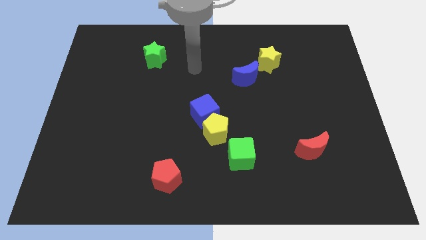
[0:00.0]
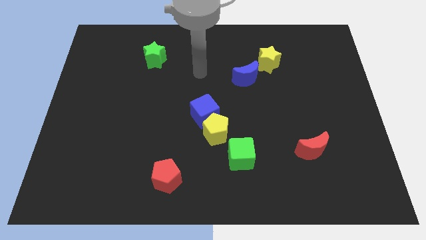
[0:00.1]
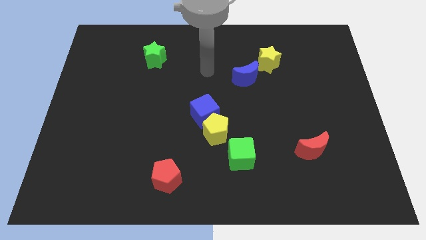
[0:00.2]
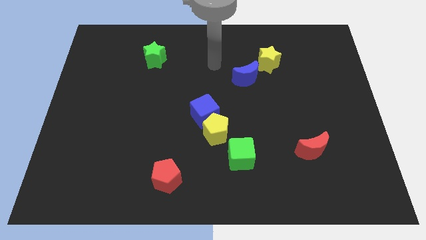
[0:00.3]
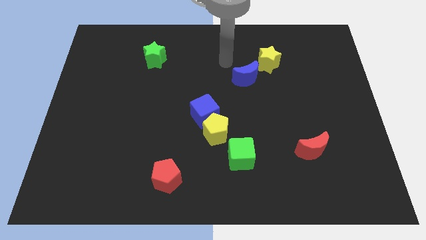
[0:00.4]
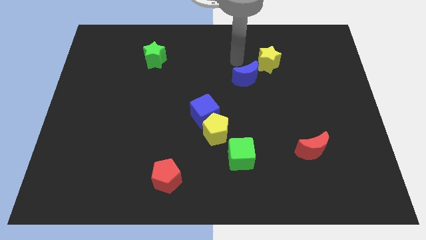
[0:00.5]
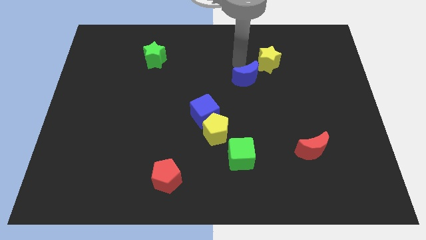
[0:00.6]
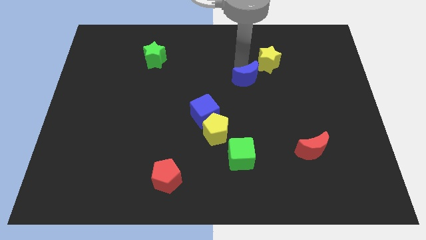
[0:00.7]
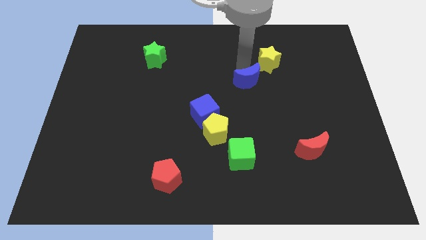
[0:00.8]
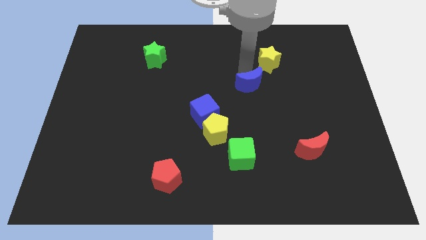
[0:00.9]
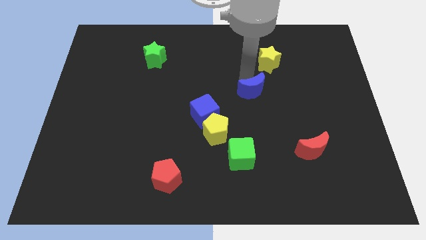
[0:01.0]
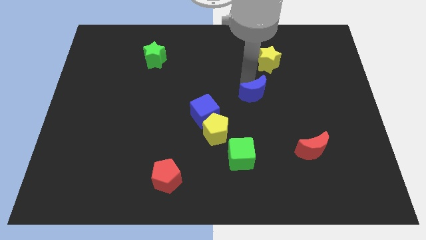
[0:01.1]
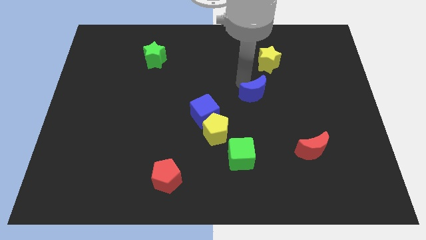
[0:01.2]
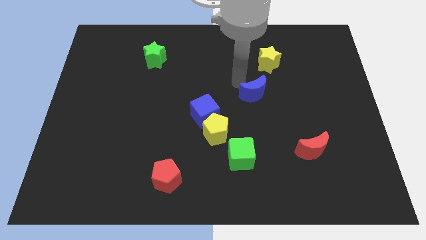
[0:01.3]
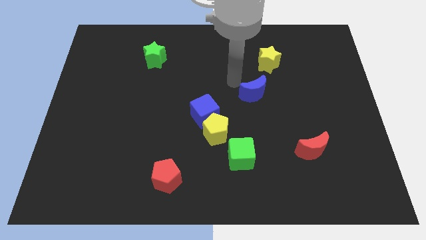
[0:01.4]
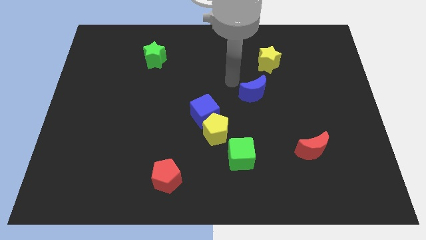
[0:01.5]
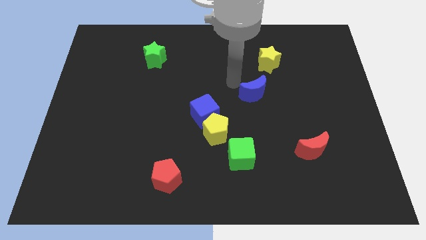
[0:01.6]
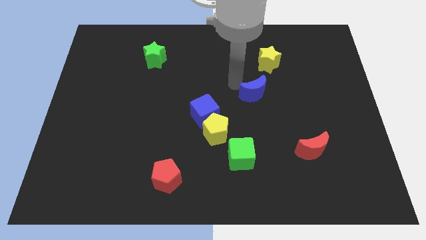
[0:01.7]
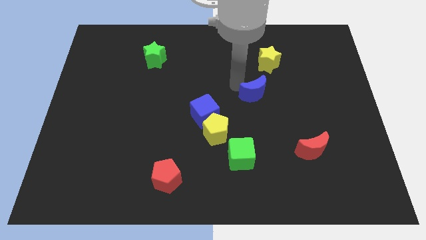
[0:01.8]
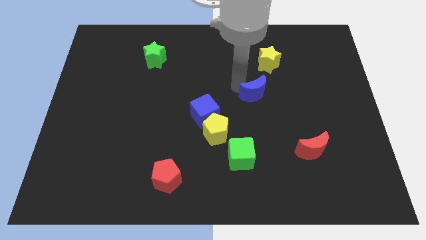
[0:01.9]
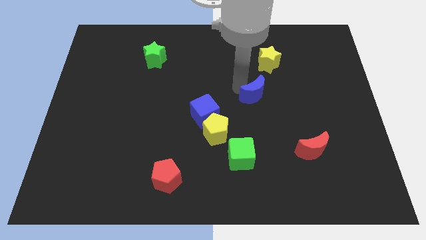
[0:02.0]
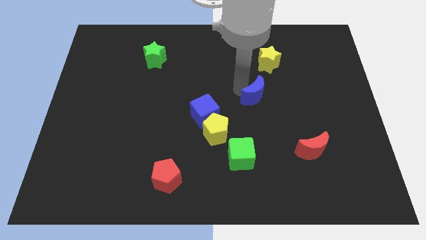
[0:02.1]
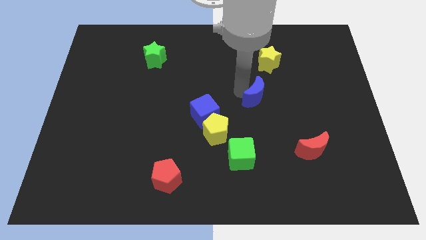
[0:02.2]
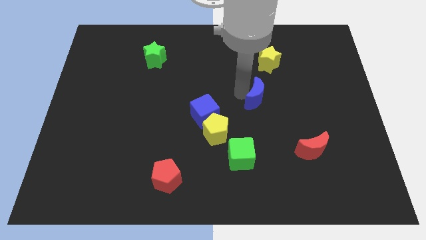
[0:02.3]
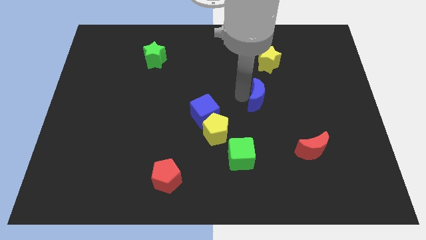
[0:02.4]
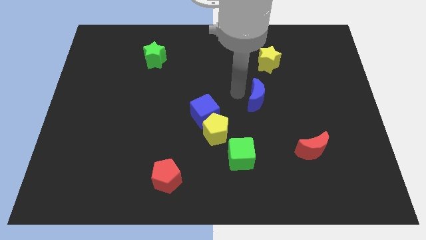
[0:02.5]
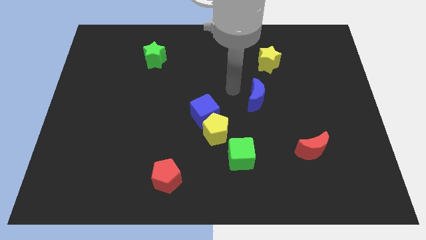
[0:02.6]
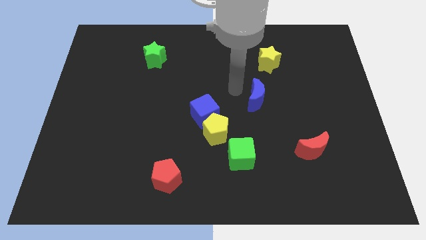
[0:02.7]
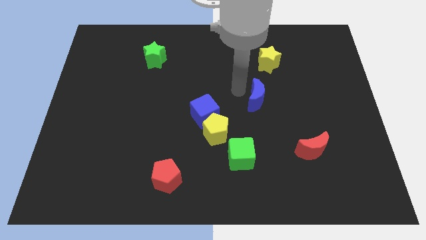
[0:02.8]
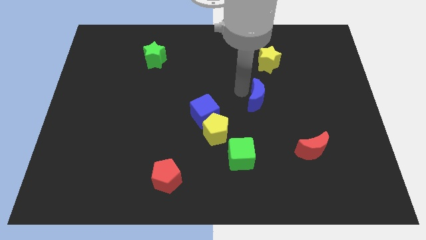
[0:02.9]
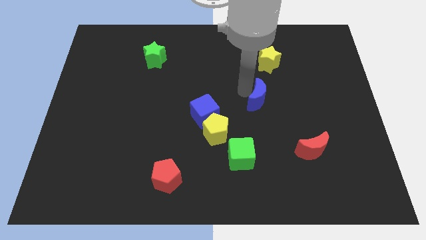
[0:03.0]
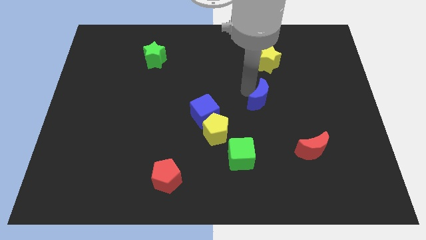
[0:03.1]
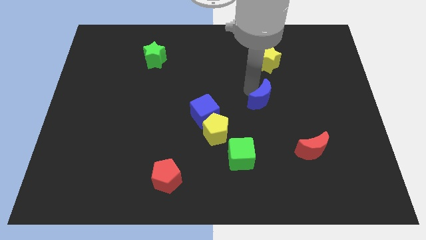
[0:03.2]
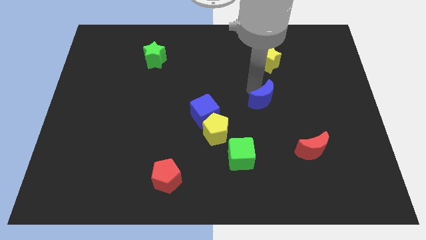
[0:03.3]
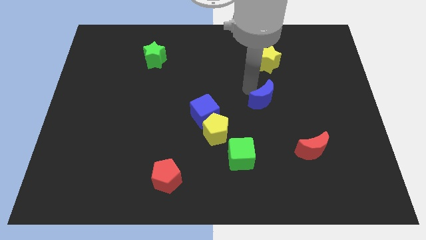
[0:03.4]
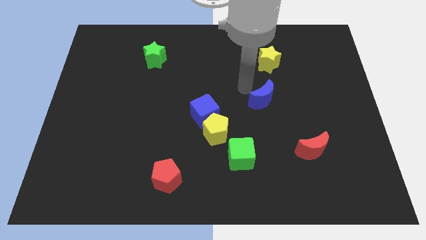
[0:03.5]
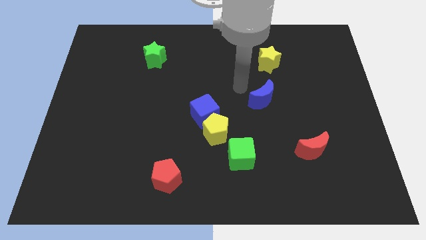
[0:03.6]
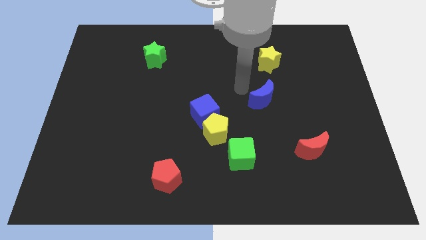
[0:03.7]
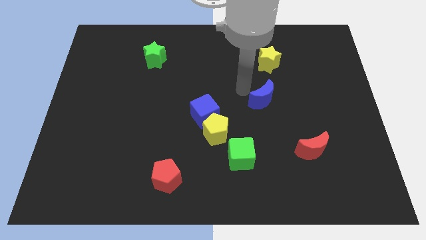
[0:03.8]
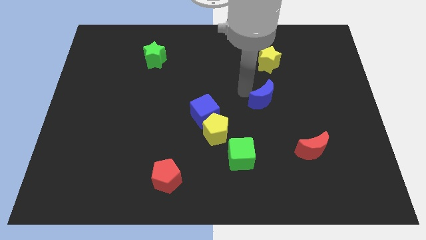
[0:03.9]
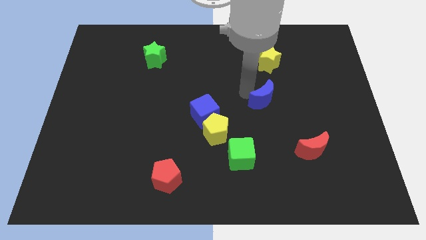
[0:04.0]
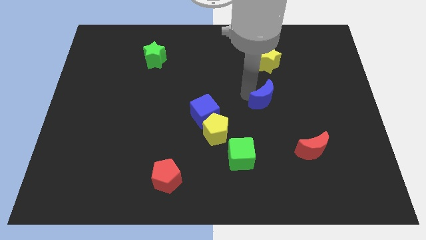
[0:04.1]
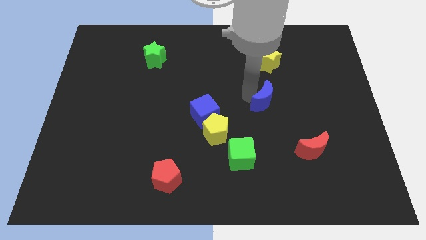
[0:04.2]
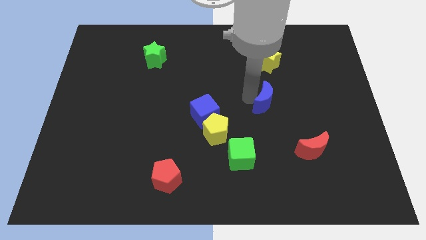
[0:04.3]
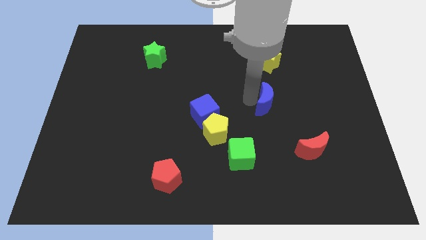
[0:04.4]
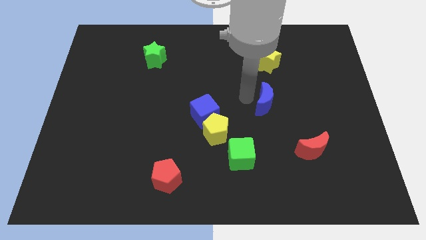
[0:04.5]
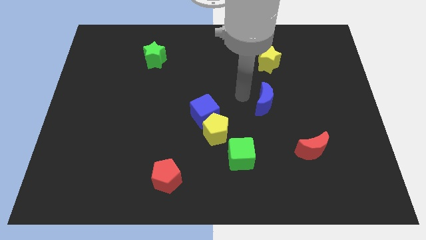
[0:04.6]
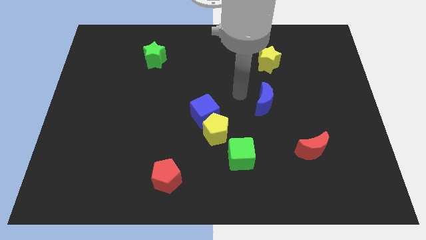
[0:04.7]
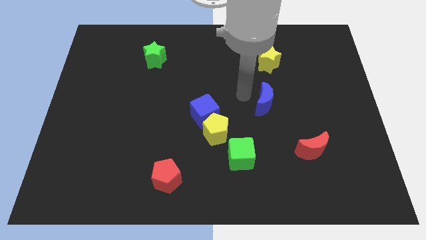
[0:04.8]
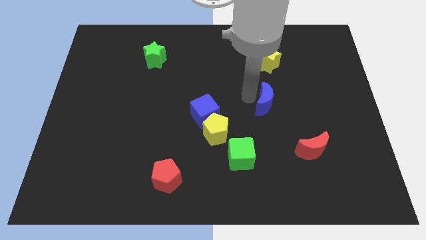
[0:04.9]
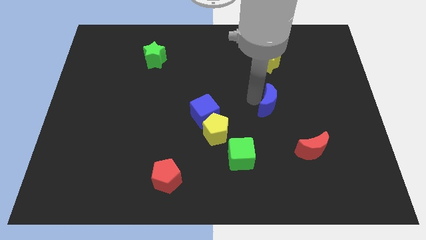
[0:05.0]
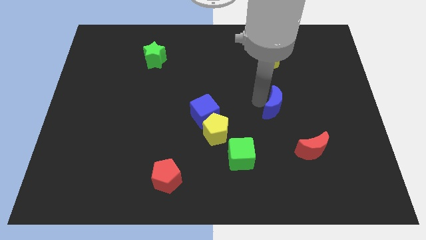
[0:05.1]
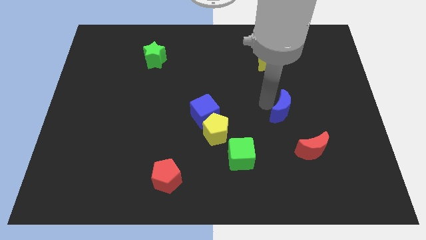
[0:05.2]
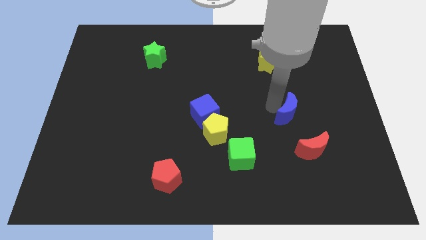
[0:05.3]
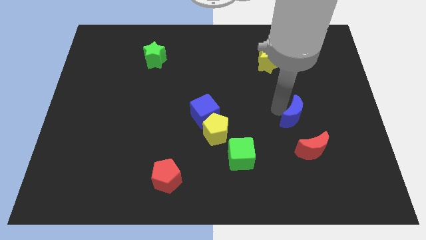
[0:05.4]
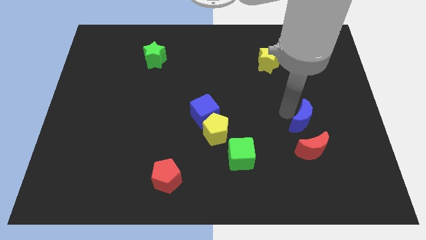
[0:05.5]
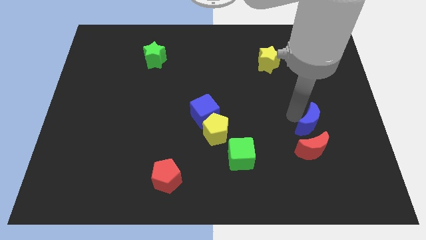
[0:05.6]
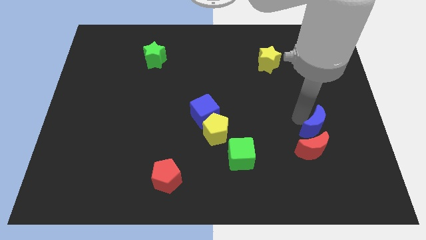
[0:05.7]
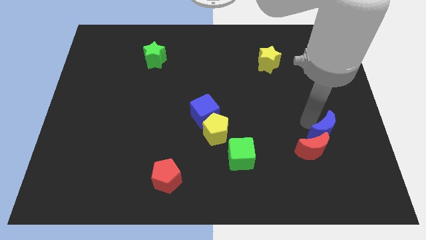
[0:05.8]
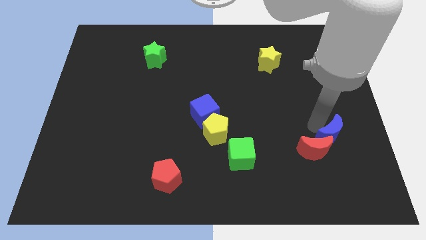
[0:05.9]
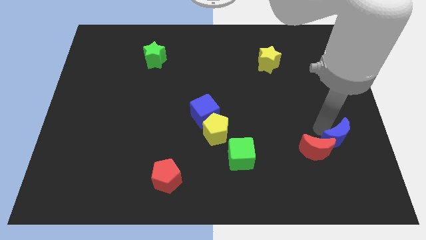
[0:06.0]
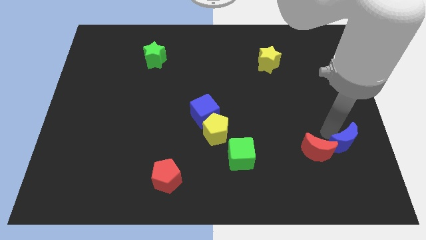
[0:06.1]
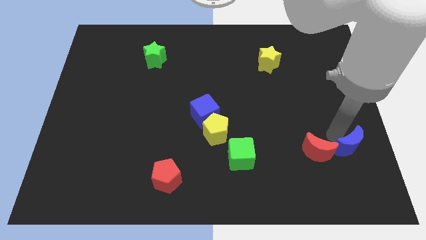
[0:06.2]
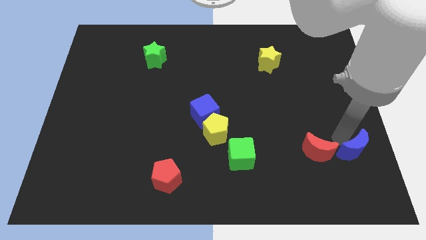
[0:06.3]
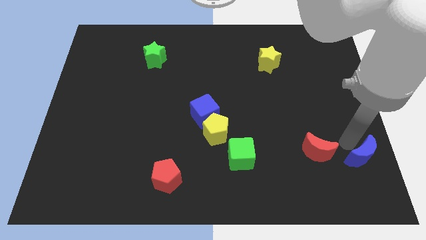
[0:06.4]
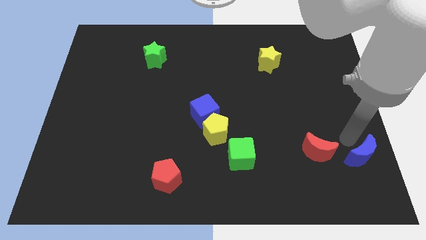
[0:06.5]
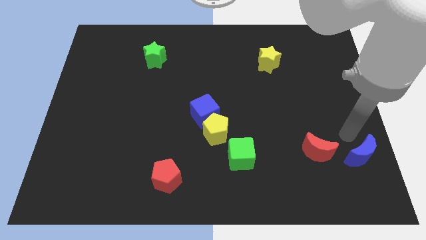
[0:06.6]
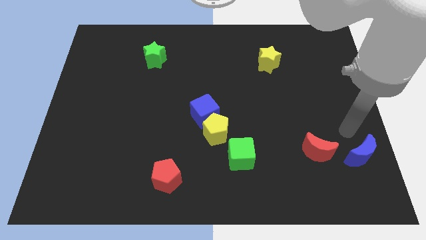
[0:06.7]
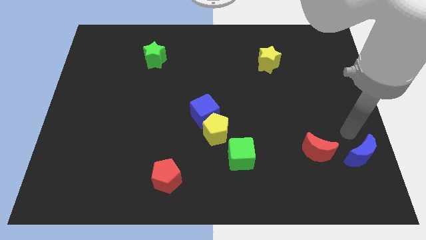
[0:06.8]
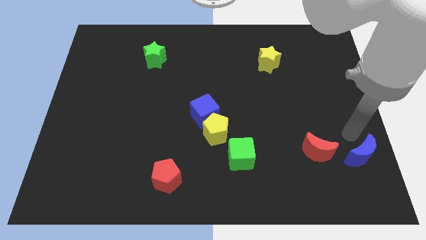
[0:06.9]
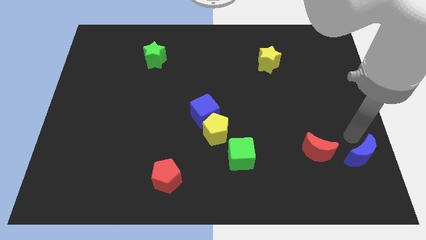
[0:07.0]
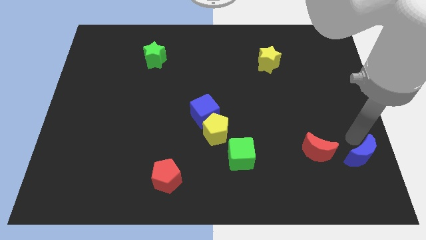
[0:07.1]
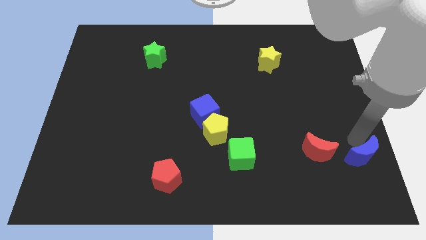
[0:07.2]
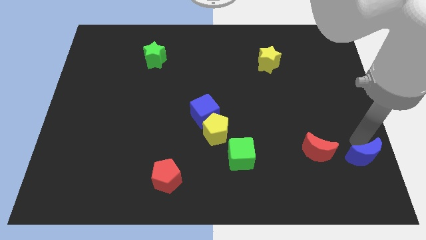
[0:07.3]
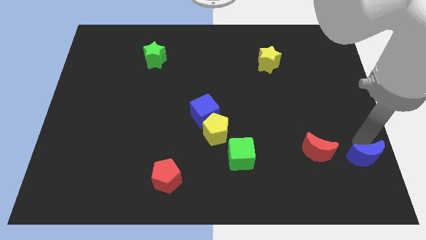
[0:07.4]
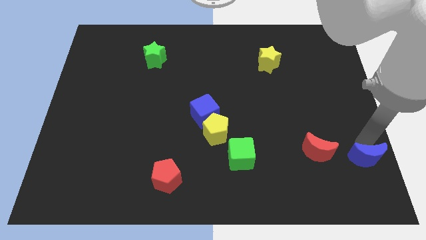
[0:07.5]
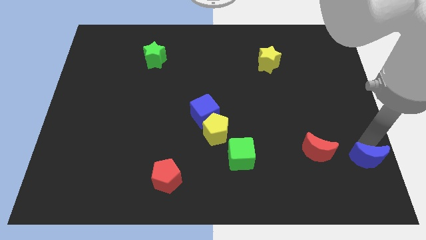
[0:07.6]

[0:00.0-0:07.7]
slide the blue moon to the bottom right corner
